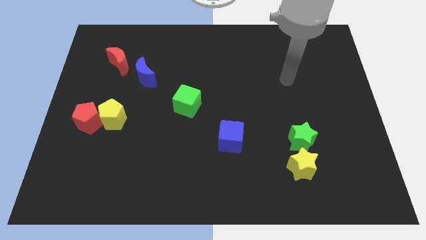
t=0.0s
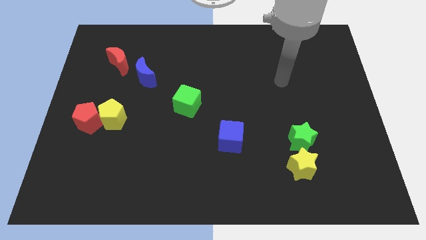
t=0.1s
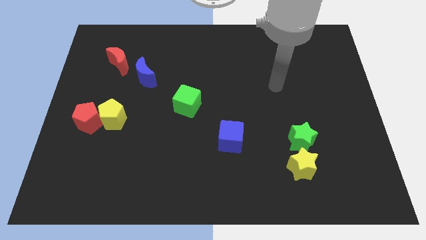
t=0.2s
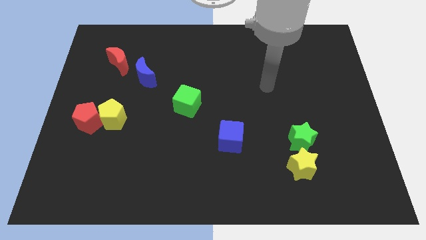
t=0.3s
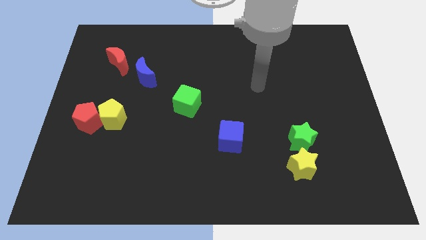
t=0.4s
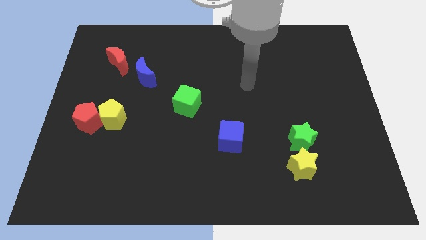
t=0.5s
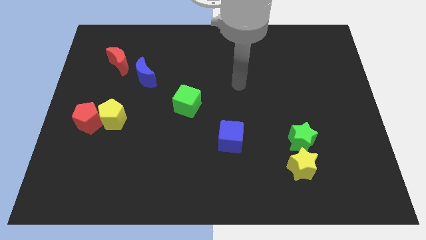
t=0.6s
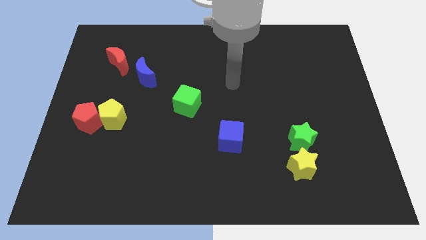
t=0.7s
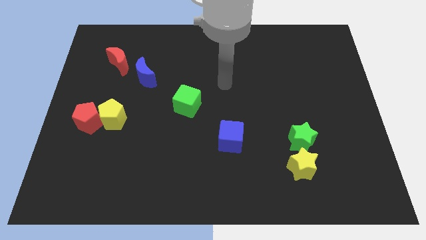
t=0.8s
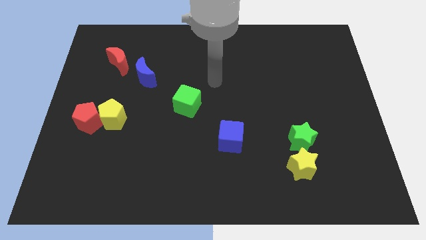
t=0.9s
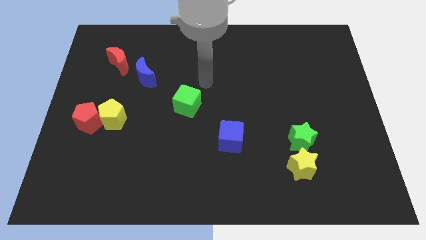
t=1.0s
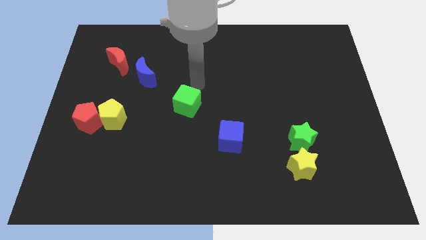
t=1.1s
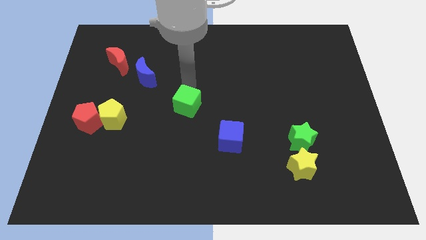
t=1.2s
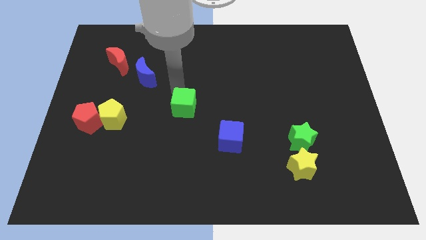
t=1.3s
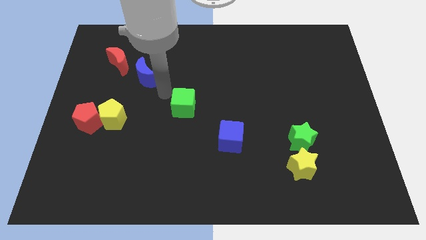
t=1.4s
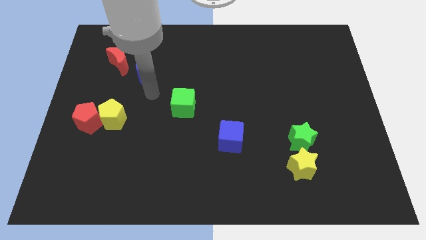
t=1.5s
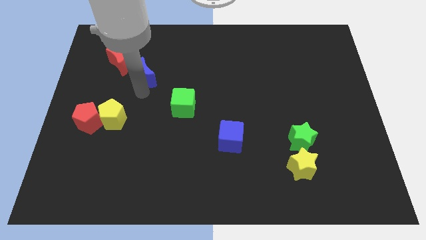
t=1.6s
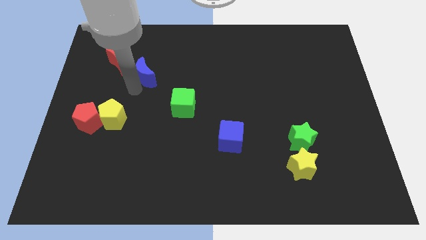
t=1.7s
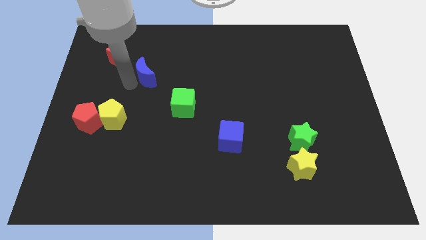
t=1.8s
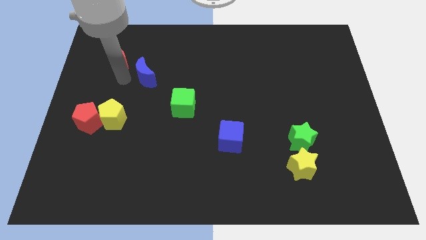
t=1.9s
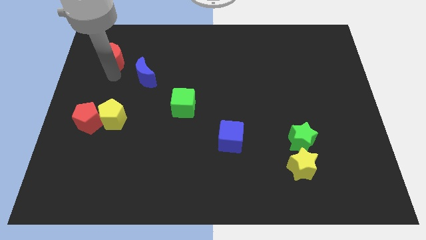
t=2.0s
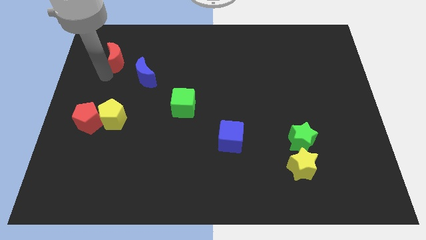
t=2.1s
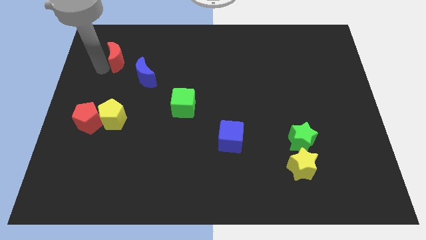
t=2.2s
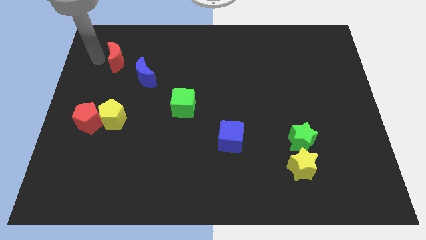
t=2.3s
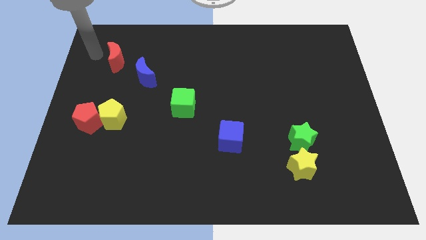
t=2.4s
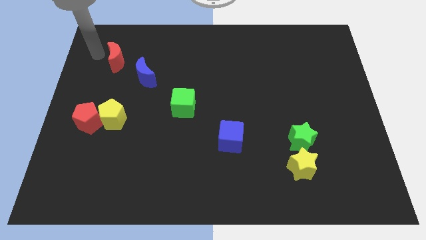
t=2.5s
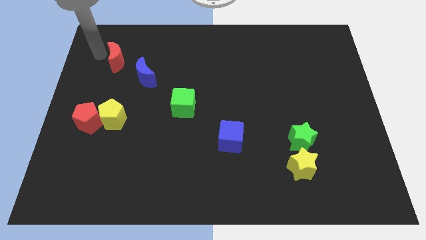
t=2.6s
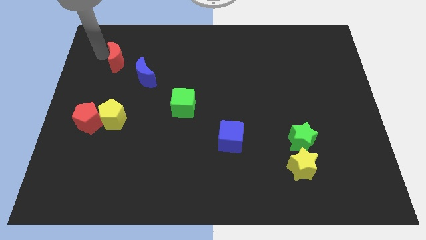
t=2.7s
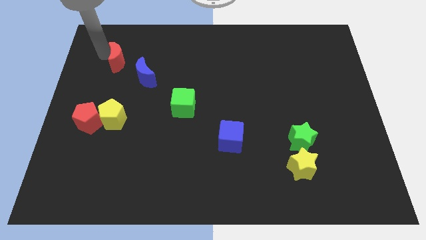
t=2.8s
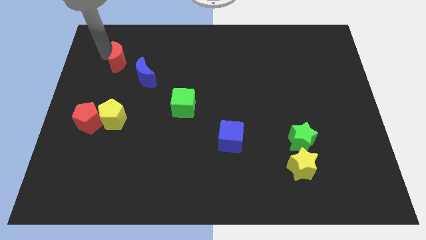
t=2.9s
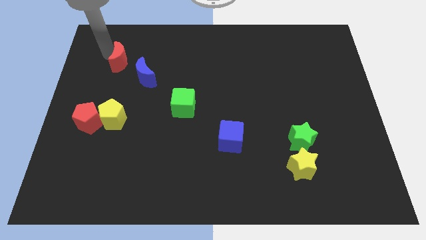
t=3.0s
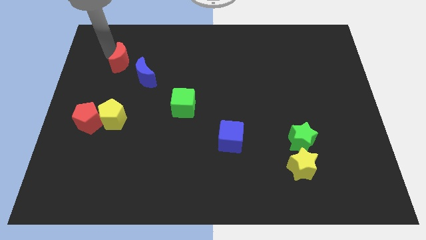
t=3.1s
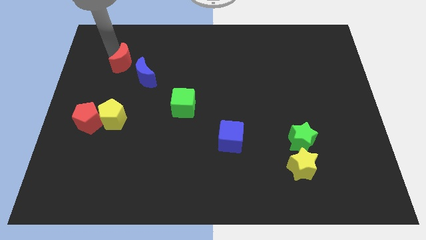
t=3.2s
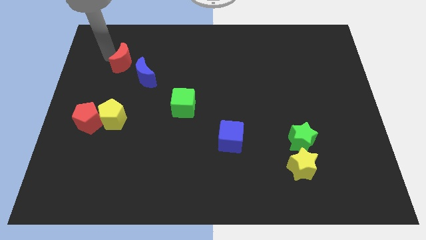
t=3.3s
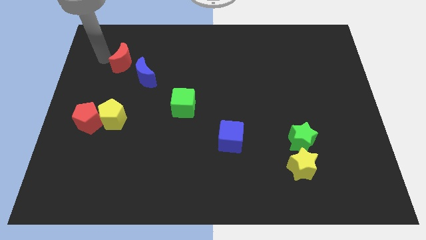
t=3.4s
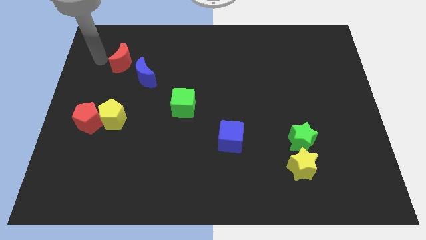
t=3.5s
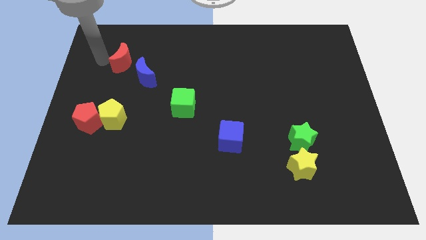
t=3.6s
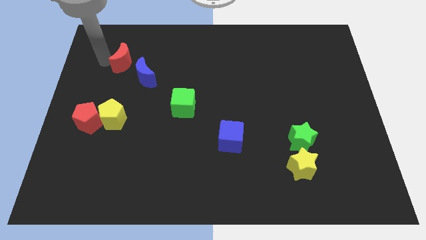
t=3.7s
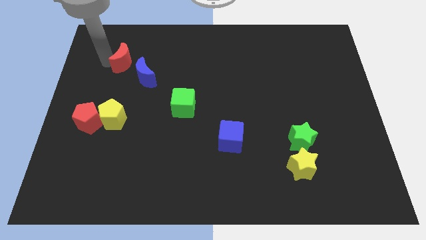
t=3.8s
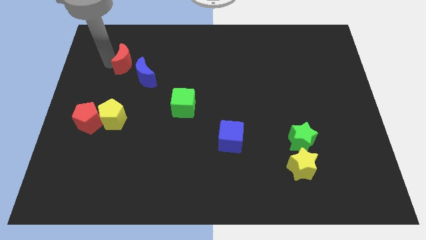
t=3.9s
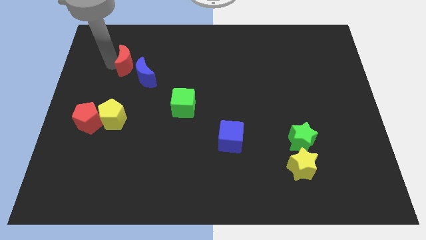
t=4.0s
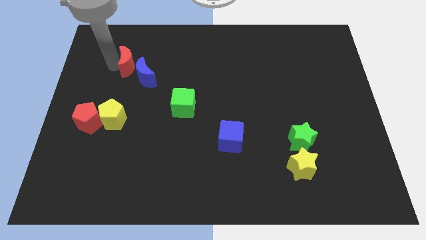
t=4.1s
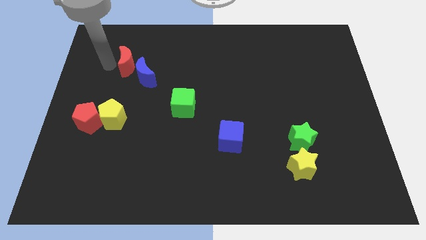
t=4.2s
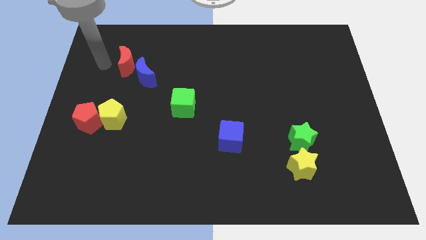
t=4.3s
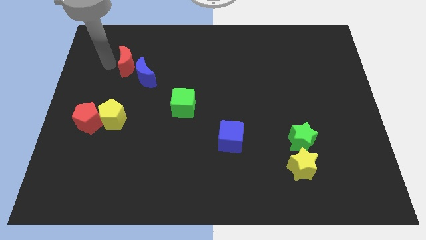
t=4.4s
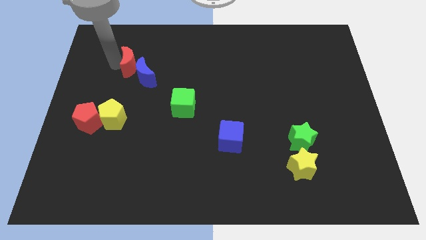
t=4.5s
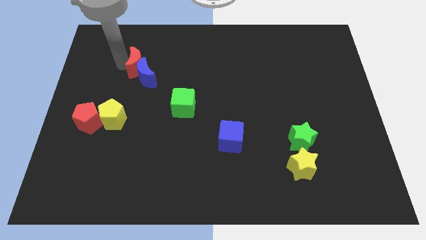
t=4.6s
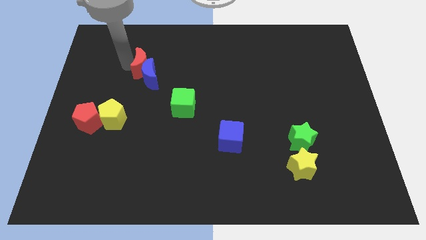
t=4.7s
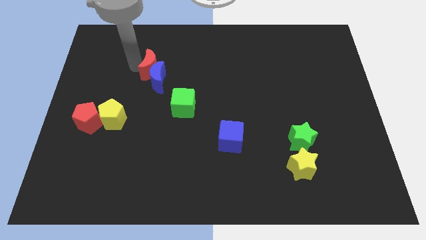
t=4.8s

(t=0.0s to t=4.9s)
slightly move the red moon to the right

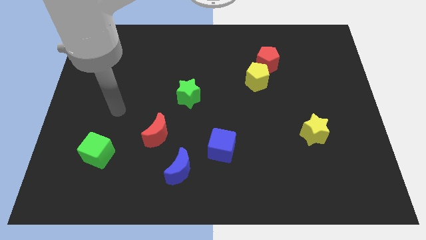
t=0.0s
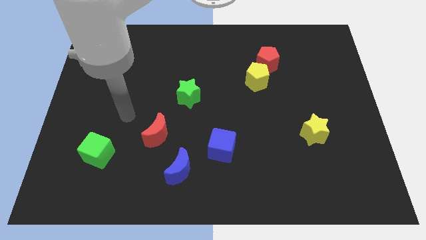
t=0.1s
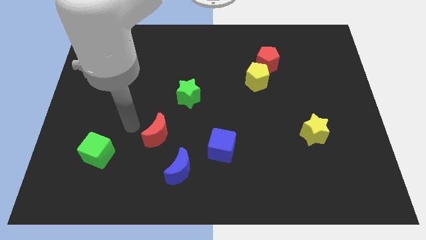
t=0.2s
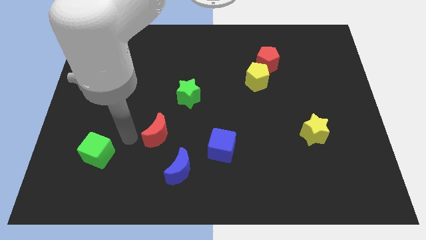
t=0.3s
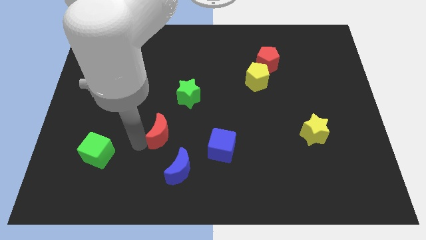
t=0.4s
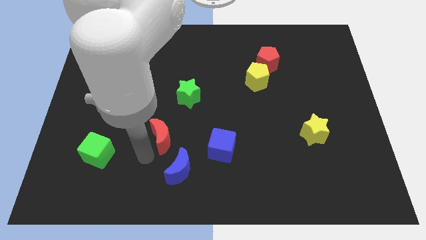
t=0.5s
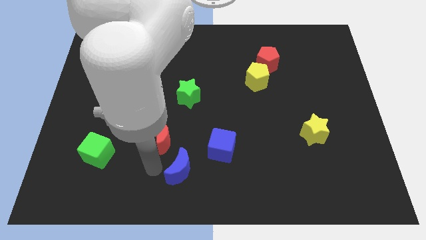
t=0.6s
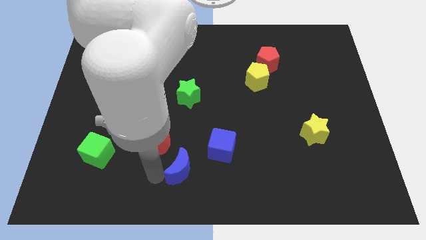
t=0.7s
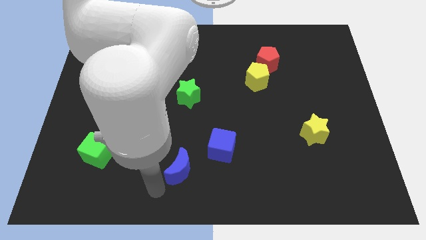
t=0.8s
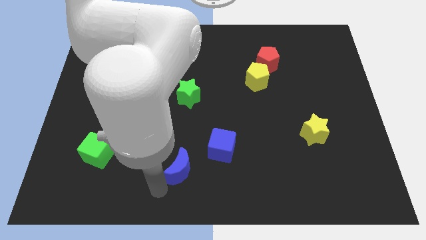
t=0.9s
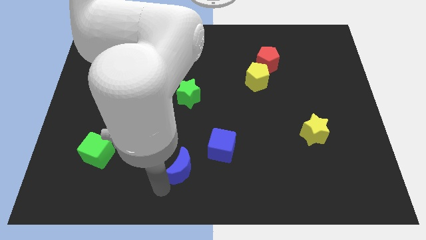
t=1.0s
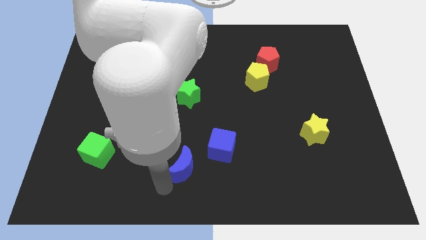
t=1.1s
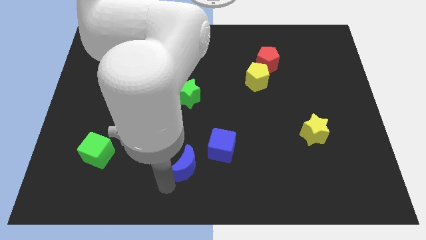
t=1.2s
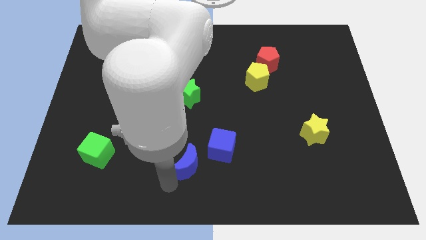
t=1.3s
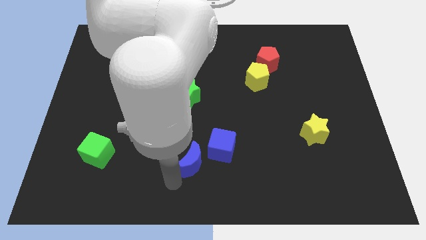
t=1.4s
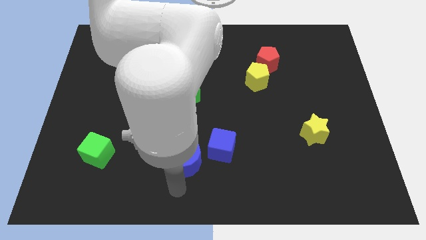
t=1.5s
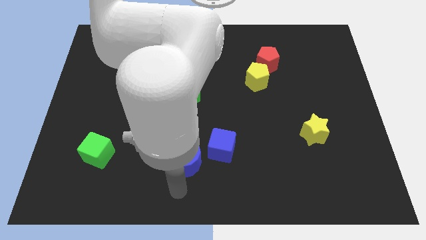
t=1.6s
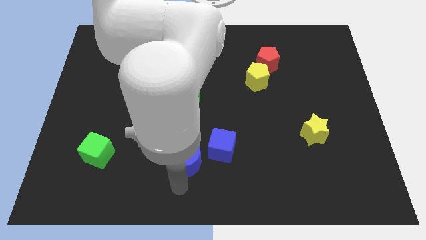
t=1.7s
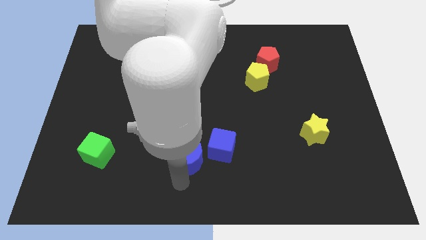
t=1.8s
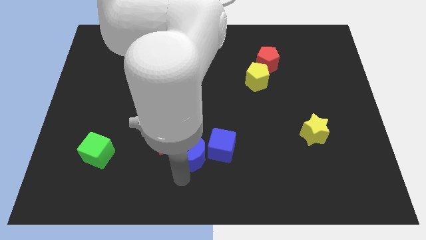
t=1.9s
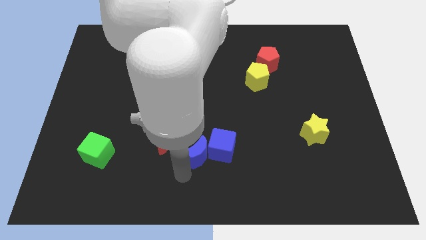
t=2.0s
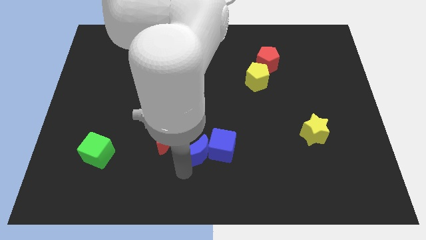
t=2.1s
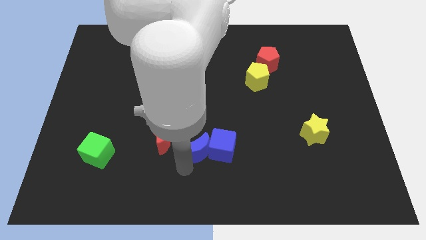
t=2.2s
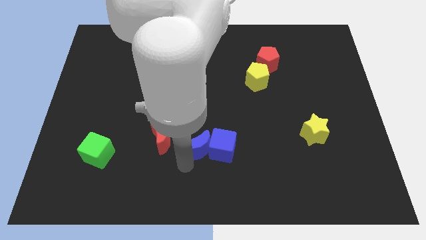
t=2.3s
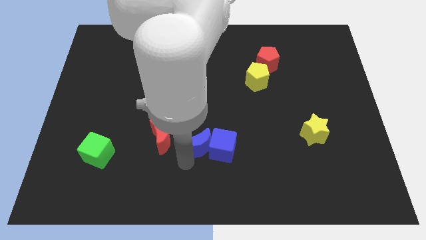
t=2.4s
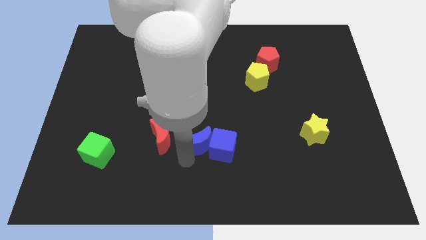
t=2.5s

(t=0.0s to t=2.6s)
slide the blue moon a little bit upwards and then to the right
